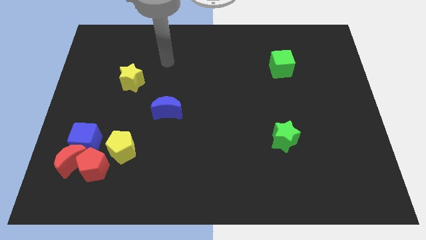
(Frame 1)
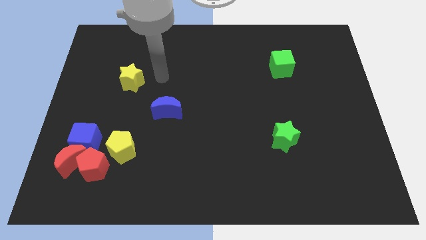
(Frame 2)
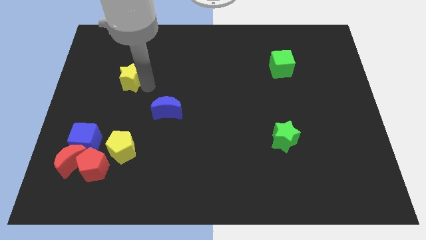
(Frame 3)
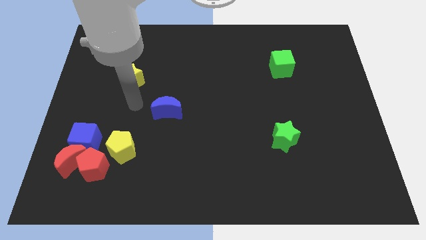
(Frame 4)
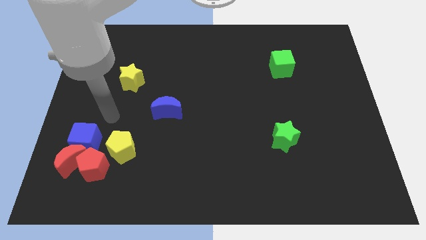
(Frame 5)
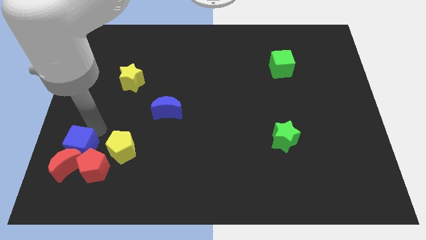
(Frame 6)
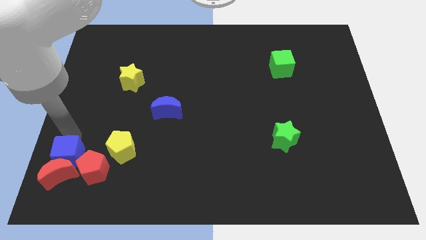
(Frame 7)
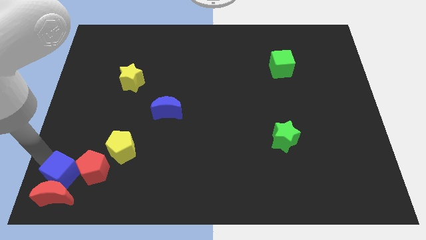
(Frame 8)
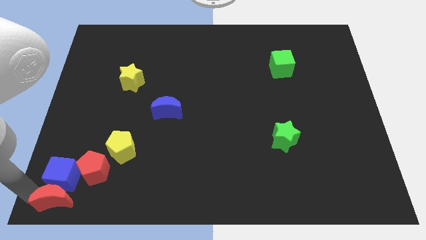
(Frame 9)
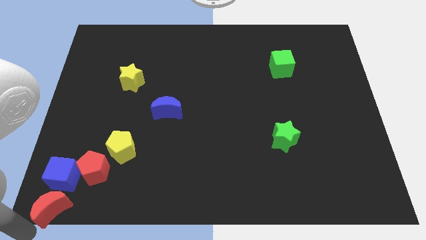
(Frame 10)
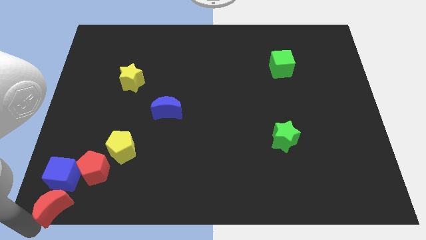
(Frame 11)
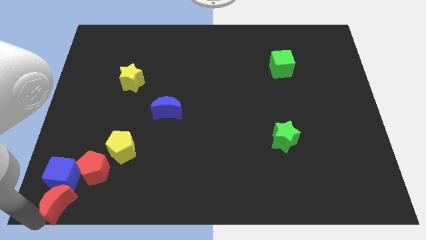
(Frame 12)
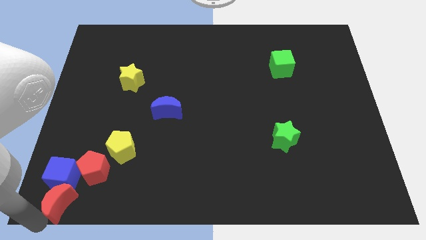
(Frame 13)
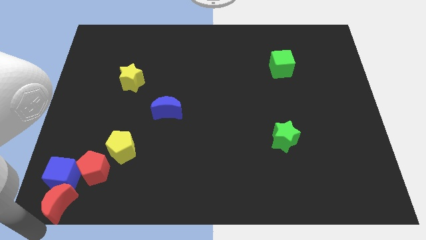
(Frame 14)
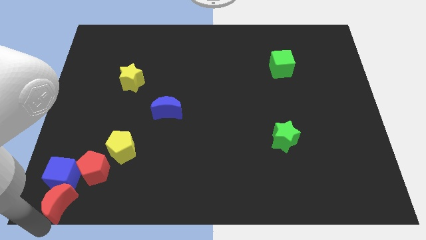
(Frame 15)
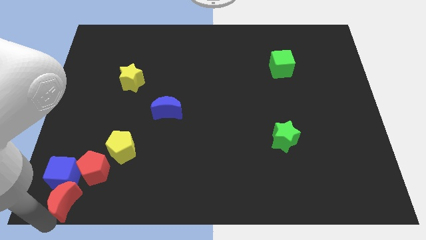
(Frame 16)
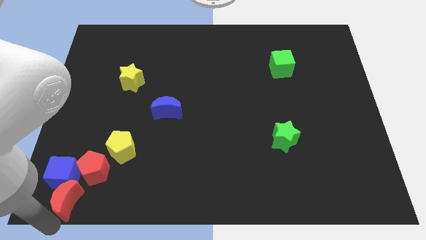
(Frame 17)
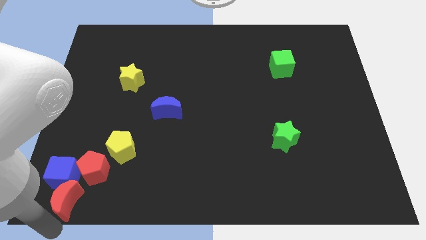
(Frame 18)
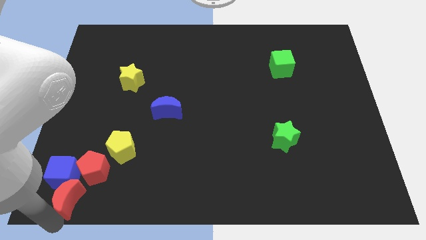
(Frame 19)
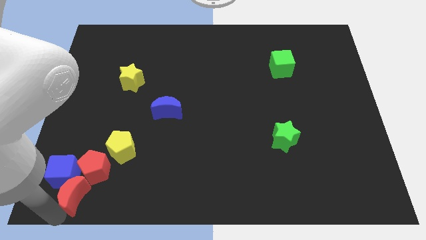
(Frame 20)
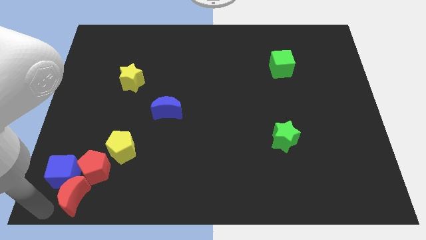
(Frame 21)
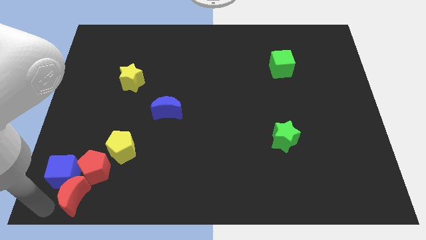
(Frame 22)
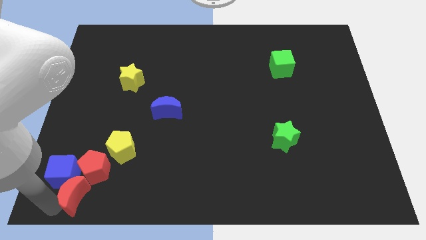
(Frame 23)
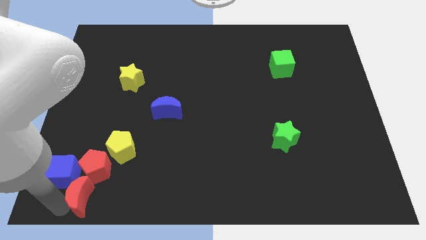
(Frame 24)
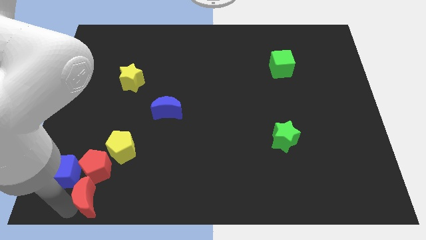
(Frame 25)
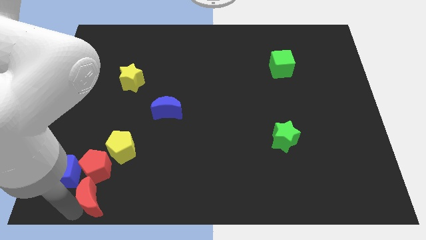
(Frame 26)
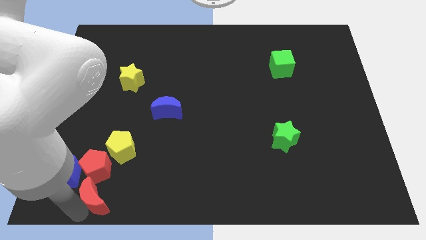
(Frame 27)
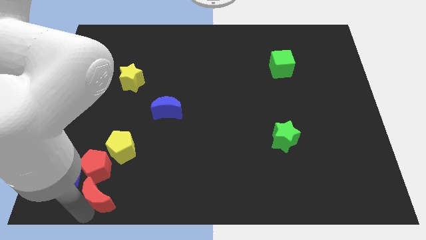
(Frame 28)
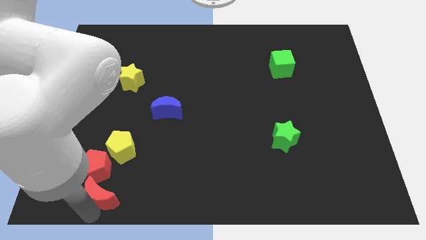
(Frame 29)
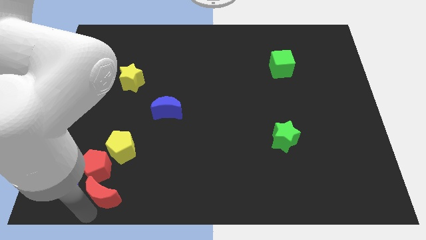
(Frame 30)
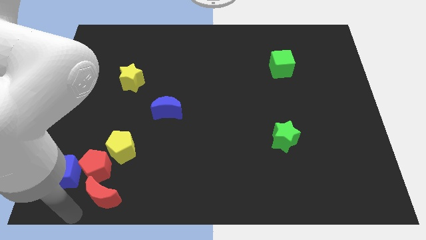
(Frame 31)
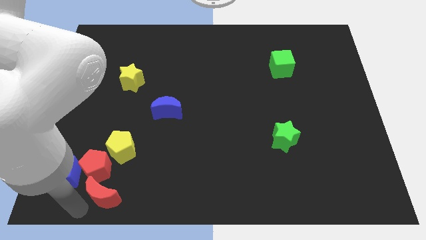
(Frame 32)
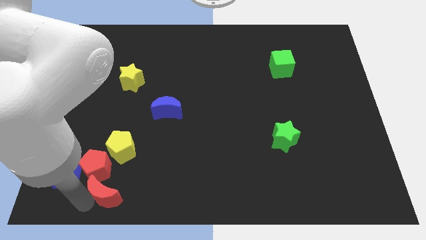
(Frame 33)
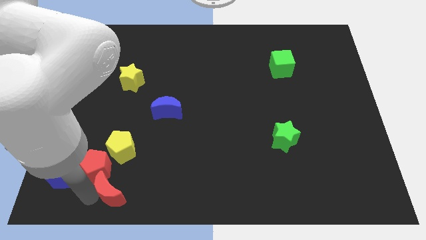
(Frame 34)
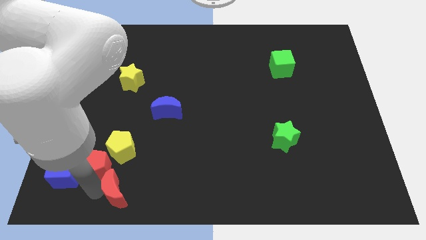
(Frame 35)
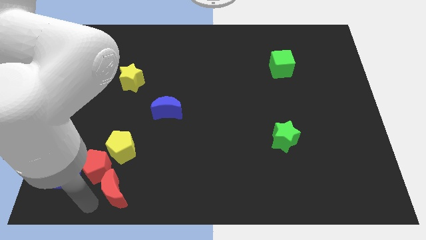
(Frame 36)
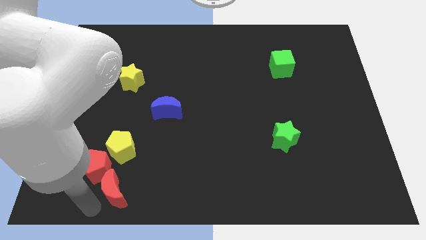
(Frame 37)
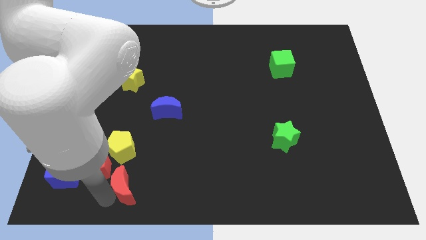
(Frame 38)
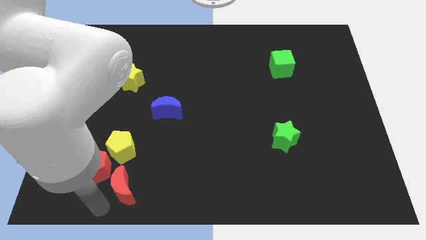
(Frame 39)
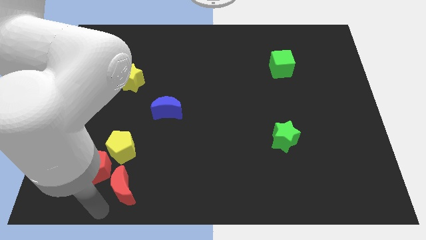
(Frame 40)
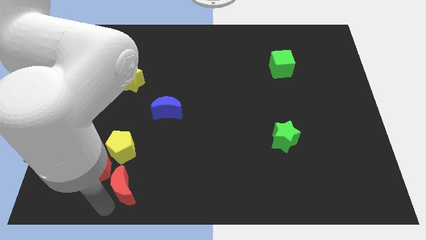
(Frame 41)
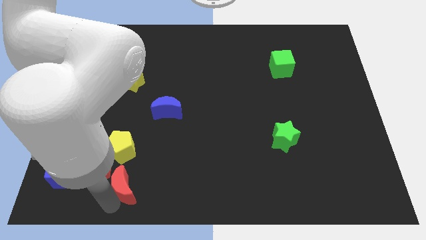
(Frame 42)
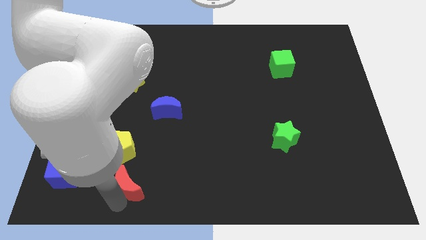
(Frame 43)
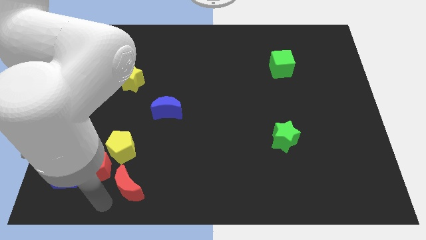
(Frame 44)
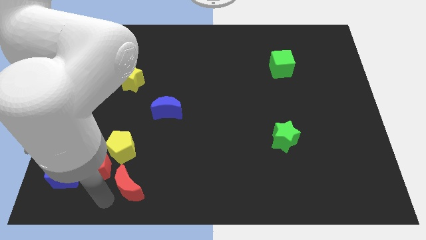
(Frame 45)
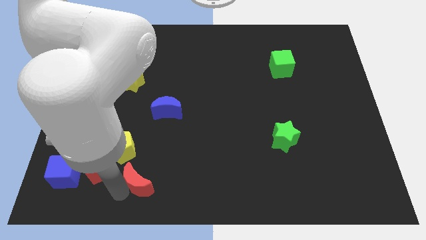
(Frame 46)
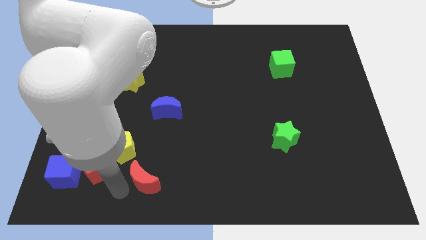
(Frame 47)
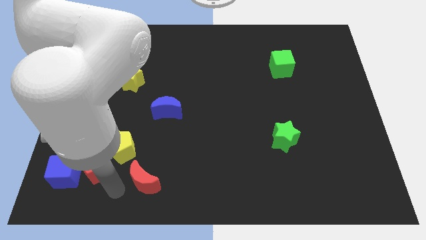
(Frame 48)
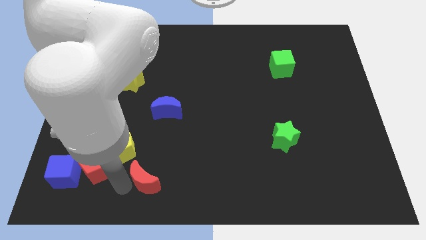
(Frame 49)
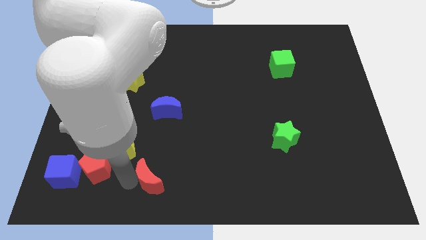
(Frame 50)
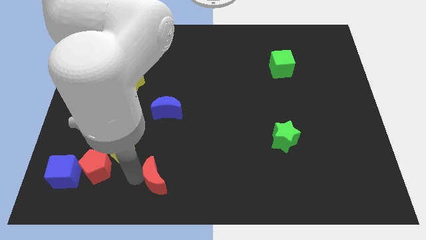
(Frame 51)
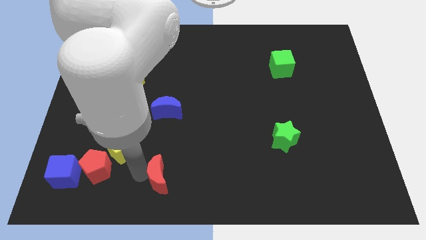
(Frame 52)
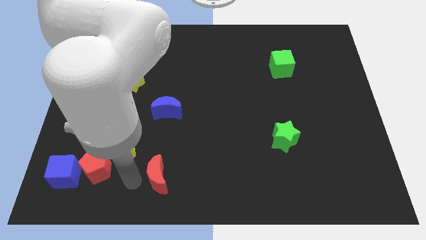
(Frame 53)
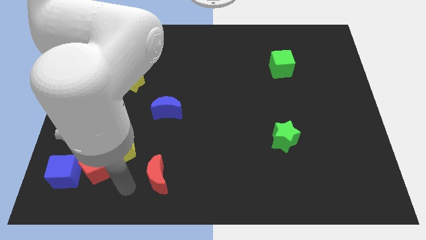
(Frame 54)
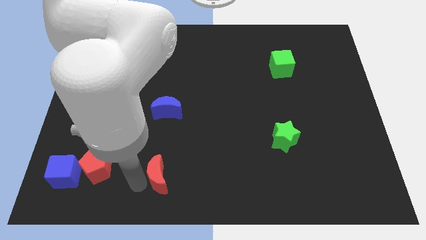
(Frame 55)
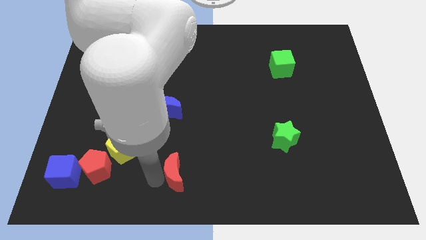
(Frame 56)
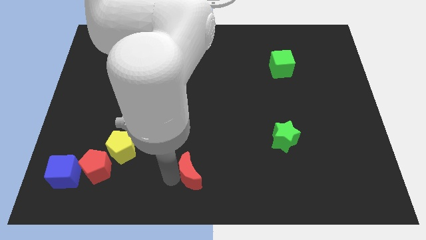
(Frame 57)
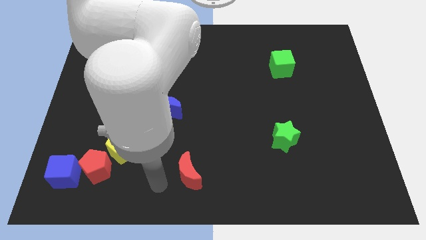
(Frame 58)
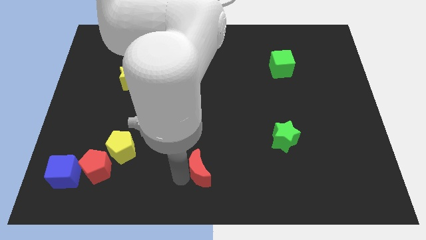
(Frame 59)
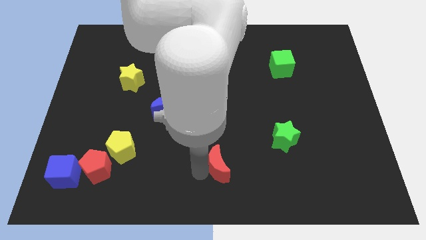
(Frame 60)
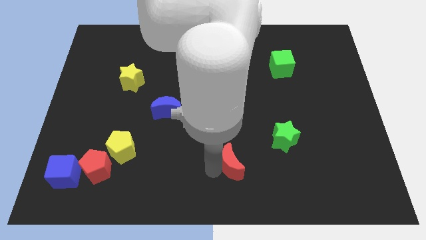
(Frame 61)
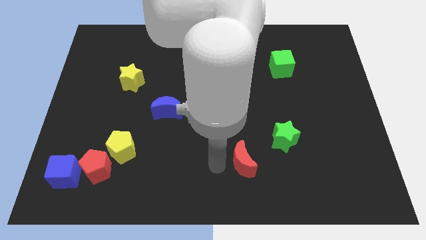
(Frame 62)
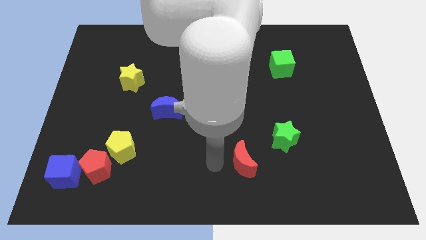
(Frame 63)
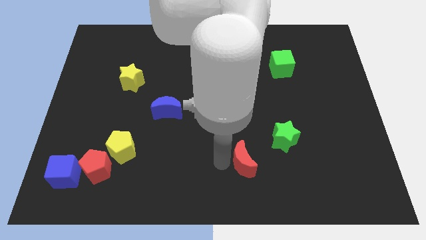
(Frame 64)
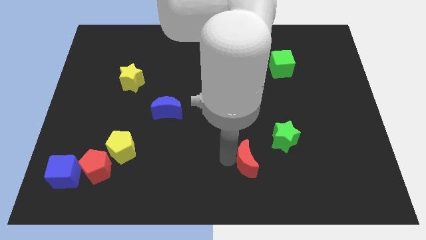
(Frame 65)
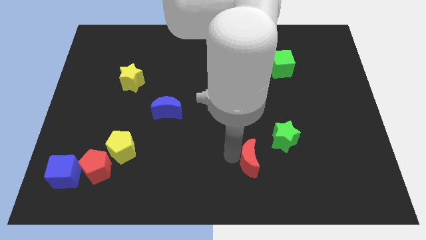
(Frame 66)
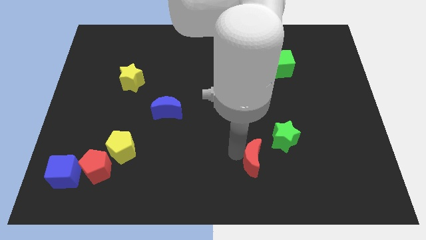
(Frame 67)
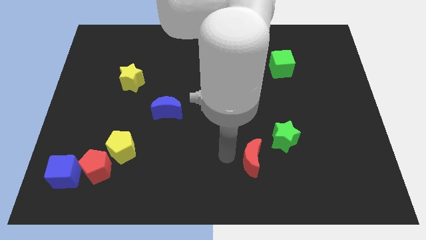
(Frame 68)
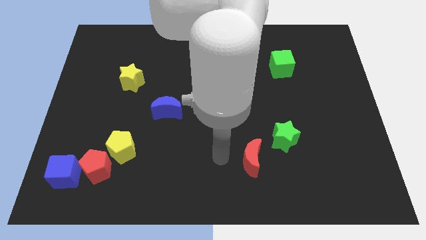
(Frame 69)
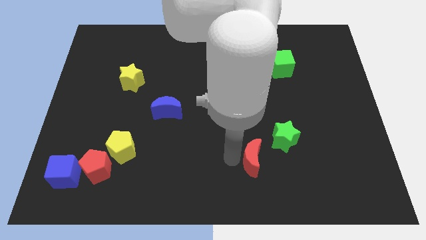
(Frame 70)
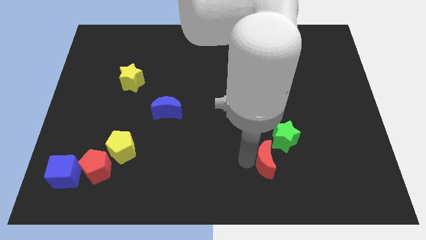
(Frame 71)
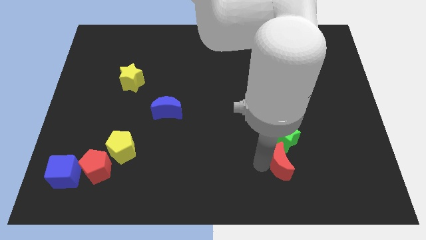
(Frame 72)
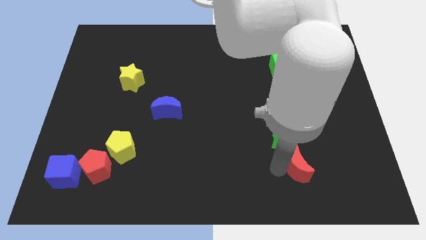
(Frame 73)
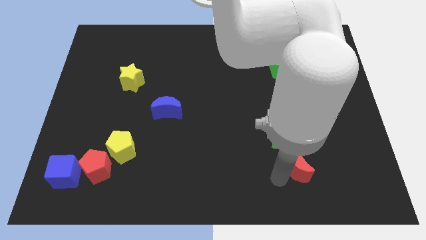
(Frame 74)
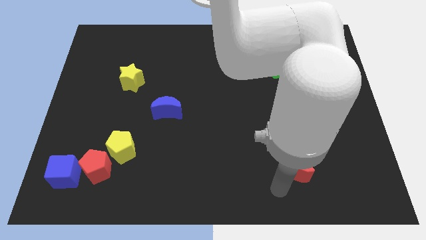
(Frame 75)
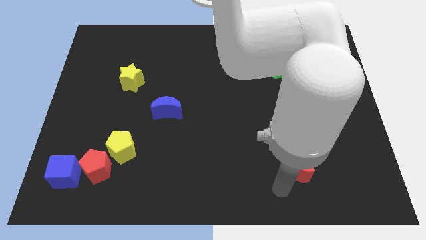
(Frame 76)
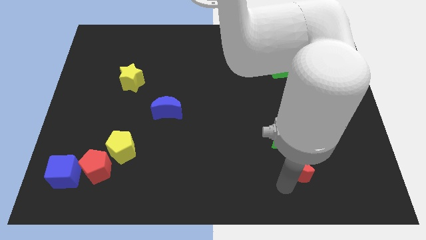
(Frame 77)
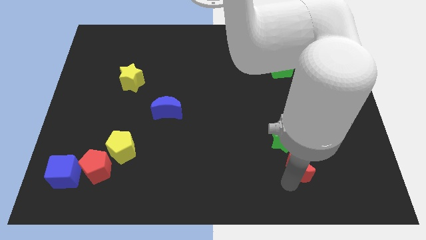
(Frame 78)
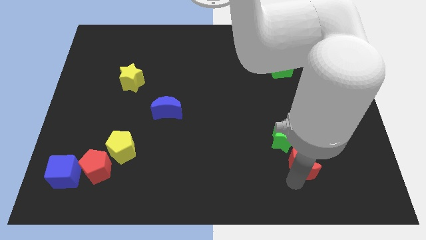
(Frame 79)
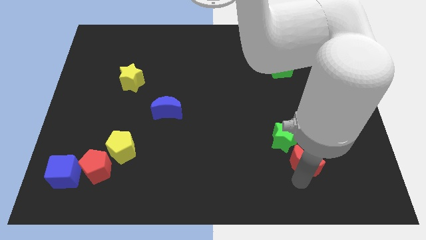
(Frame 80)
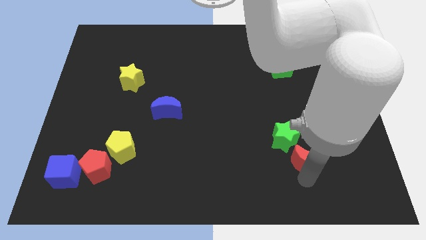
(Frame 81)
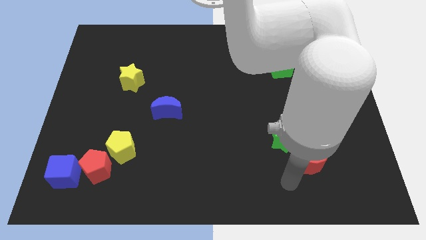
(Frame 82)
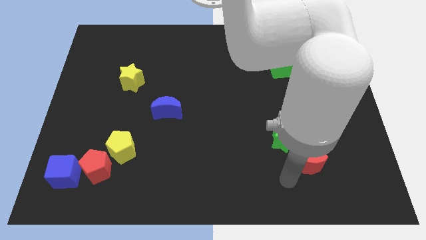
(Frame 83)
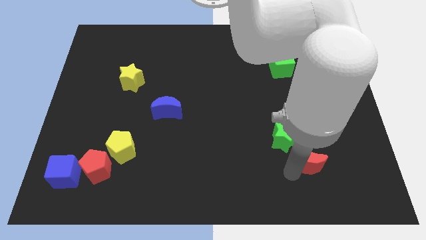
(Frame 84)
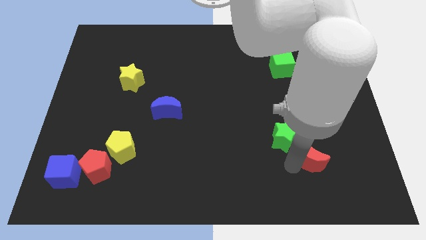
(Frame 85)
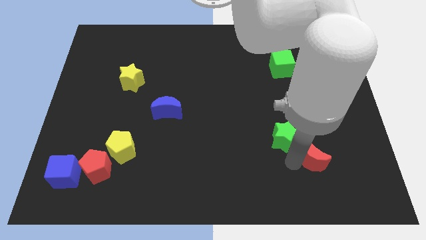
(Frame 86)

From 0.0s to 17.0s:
slide the red moon to the right side of the green star
